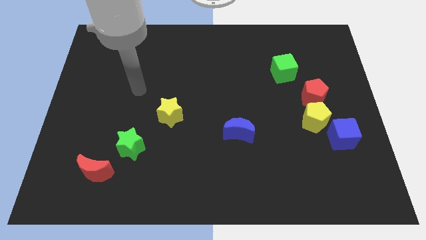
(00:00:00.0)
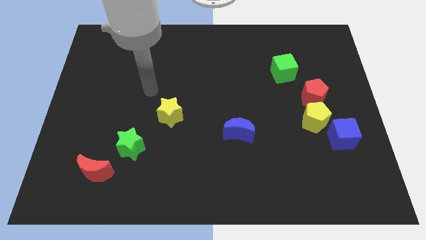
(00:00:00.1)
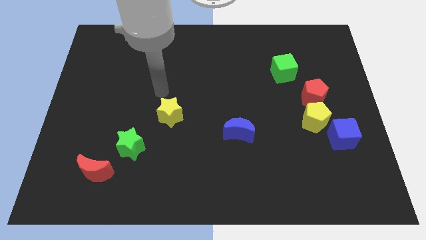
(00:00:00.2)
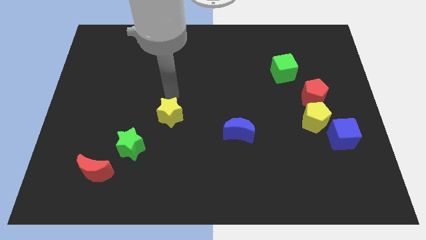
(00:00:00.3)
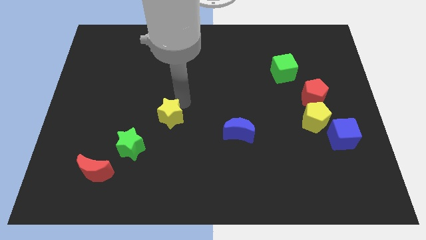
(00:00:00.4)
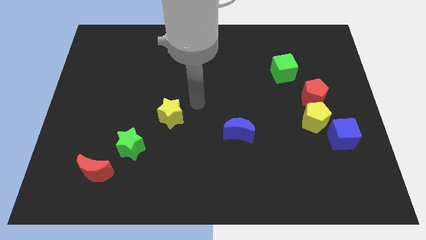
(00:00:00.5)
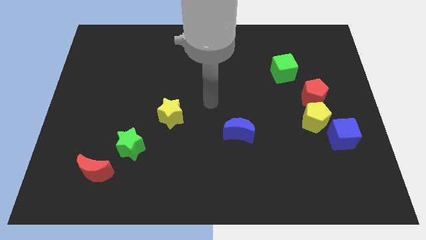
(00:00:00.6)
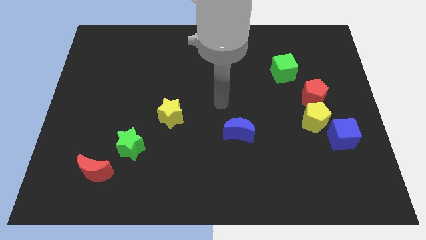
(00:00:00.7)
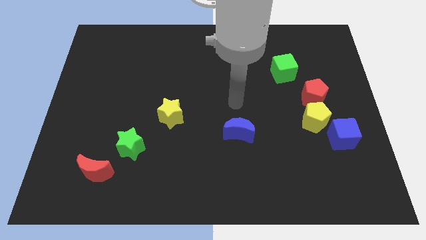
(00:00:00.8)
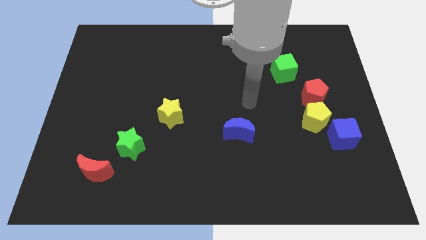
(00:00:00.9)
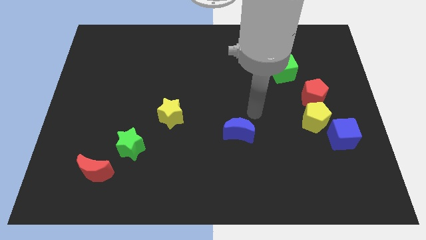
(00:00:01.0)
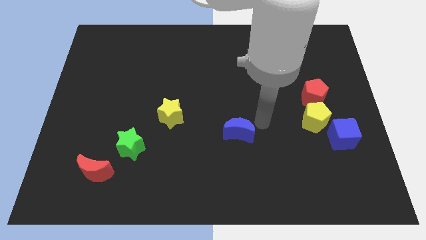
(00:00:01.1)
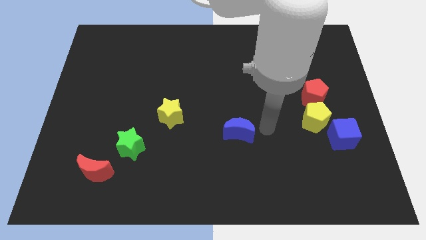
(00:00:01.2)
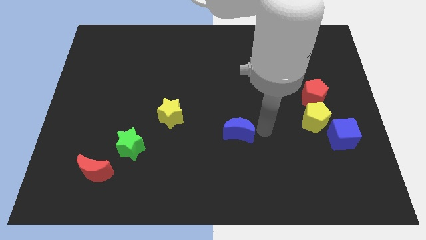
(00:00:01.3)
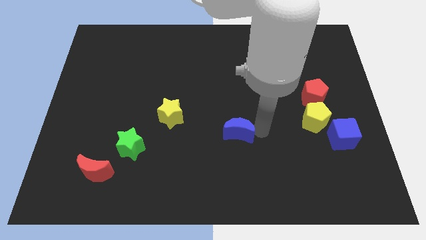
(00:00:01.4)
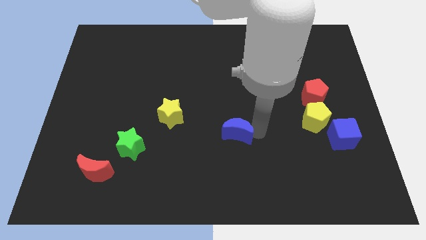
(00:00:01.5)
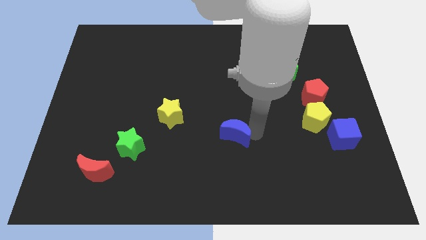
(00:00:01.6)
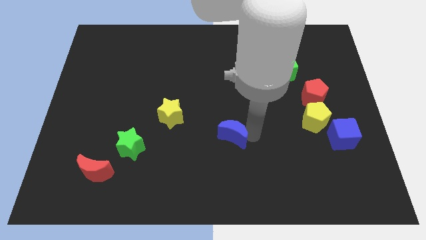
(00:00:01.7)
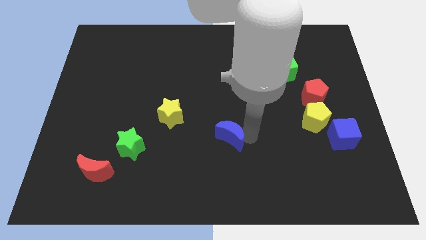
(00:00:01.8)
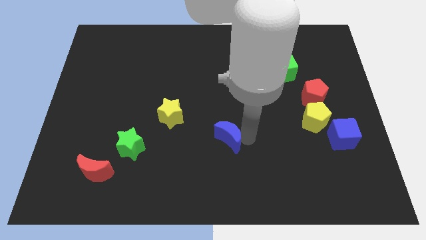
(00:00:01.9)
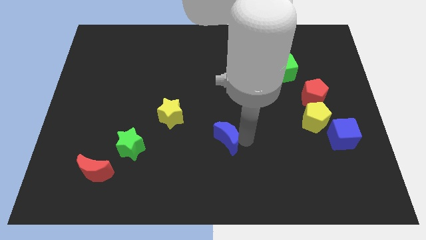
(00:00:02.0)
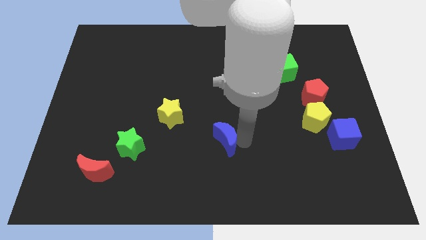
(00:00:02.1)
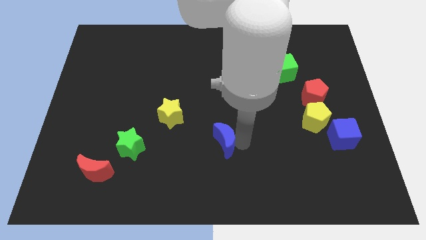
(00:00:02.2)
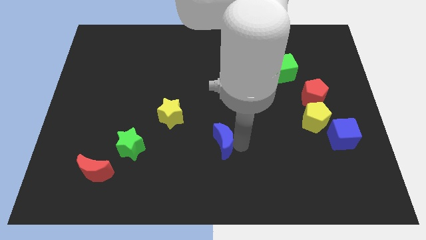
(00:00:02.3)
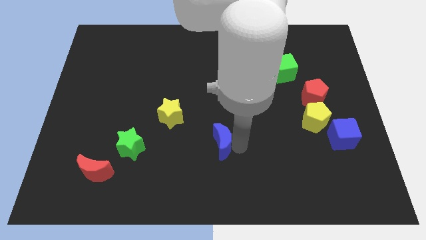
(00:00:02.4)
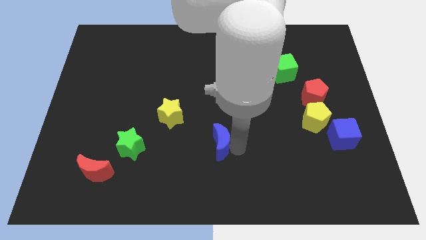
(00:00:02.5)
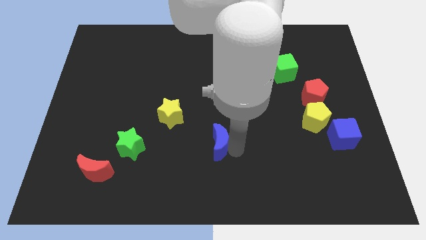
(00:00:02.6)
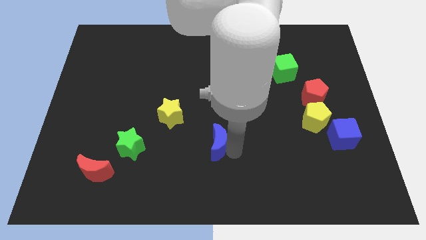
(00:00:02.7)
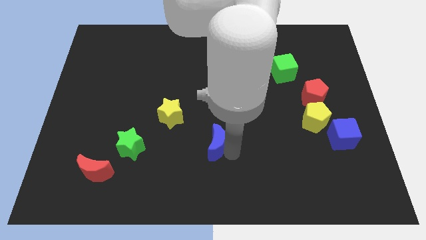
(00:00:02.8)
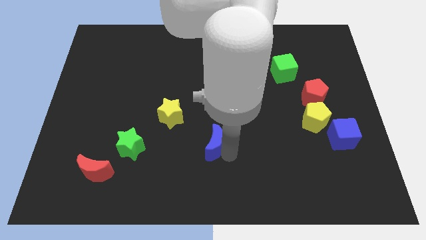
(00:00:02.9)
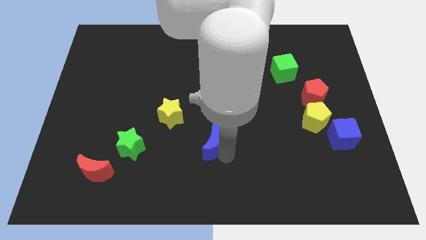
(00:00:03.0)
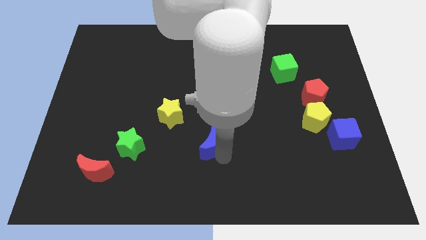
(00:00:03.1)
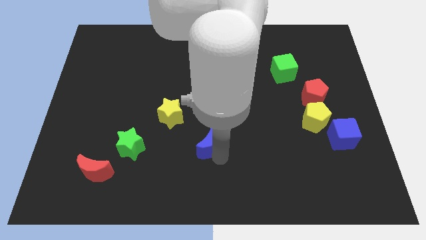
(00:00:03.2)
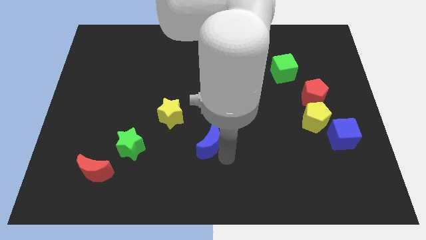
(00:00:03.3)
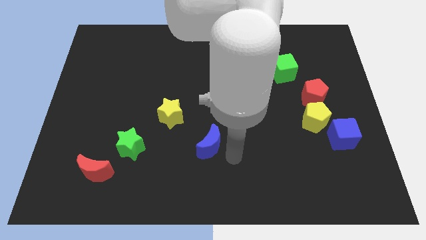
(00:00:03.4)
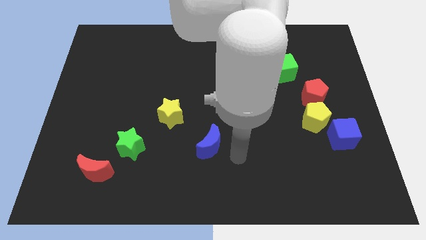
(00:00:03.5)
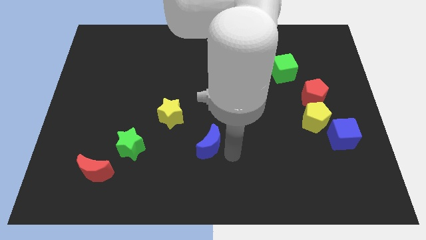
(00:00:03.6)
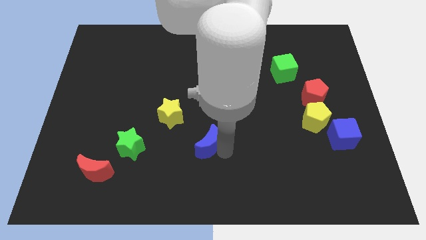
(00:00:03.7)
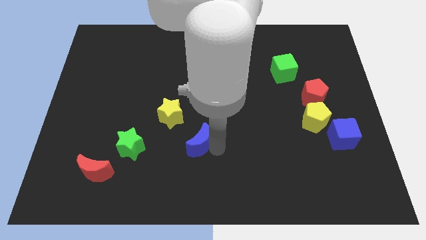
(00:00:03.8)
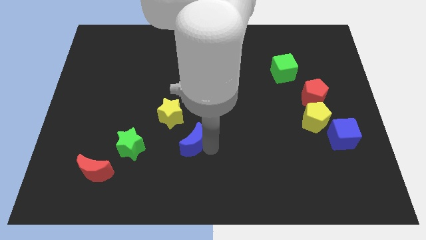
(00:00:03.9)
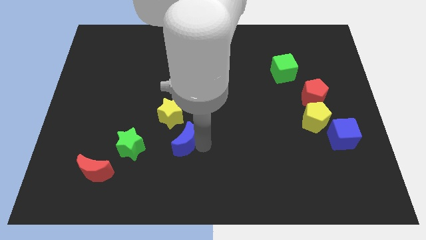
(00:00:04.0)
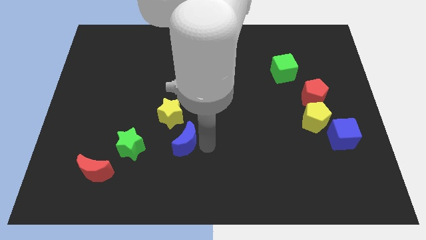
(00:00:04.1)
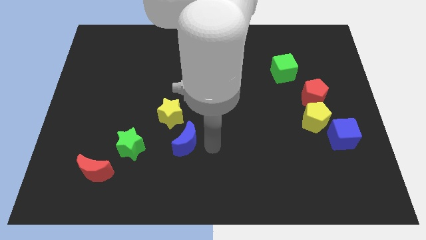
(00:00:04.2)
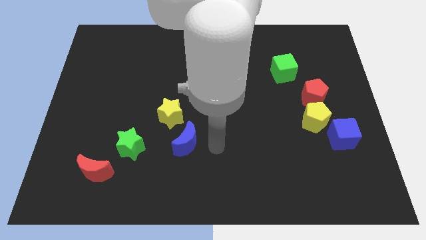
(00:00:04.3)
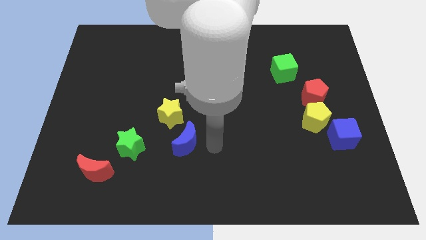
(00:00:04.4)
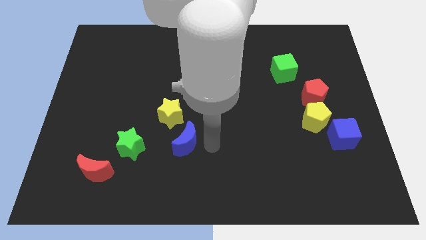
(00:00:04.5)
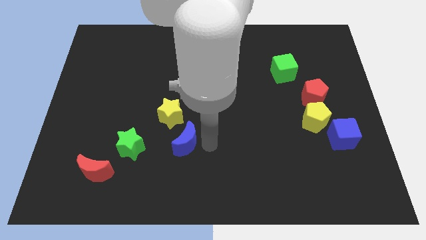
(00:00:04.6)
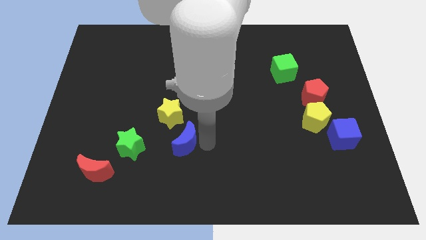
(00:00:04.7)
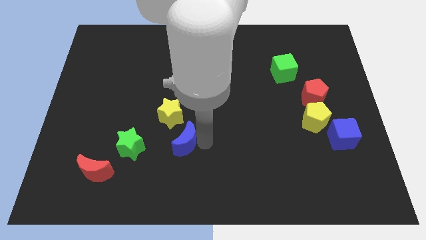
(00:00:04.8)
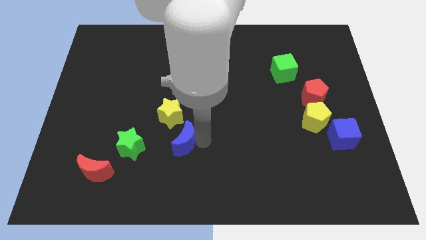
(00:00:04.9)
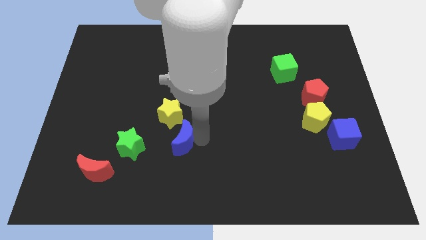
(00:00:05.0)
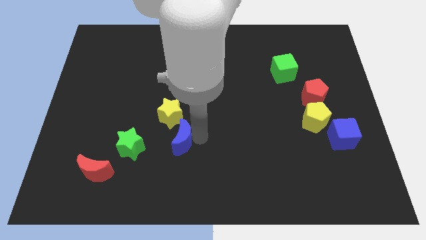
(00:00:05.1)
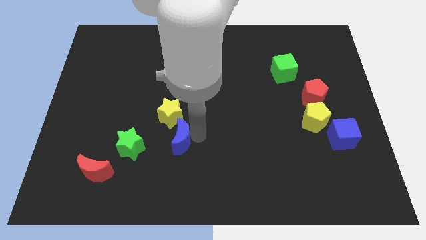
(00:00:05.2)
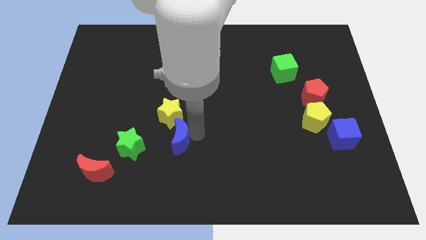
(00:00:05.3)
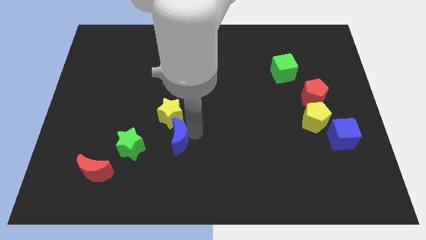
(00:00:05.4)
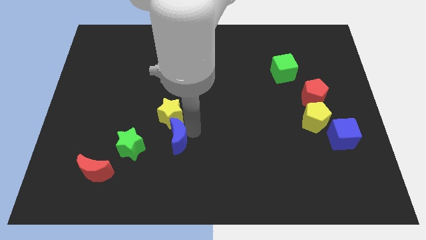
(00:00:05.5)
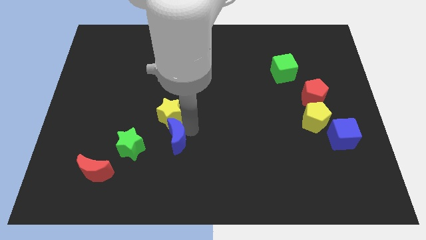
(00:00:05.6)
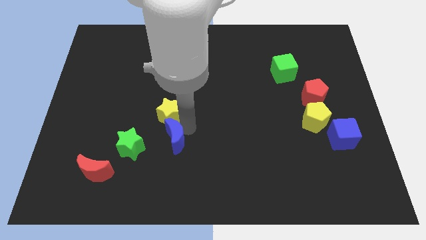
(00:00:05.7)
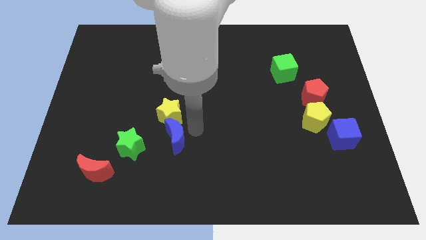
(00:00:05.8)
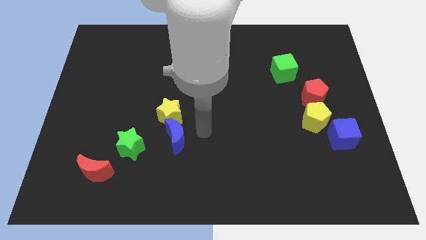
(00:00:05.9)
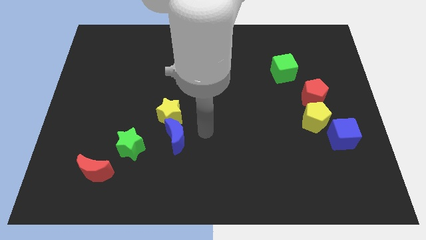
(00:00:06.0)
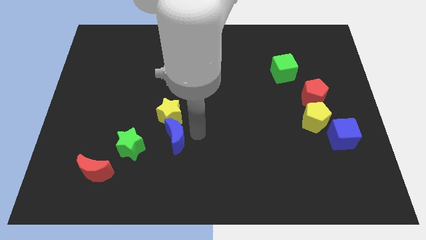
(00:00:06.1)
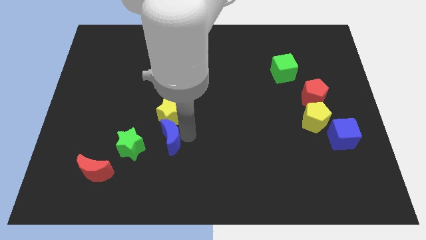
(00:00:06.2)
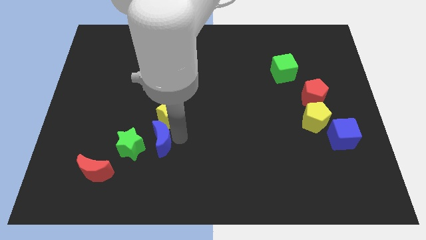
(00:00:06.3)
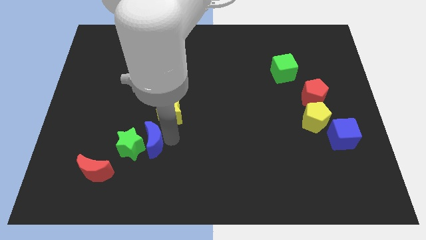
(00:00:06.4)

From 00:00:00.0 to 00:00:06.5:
push the blue moon towards the green star
